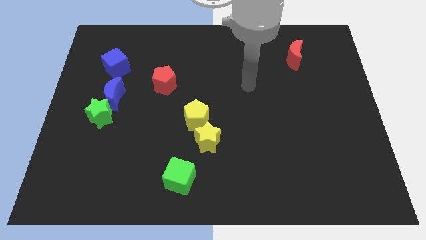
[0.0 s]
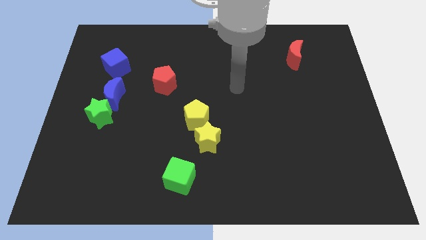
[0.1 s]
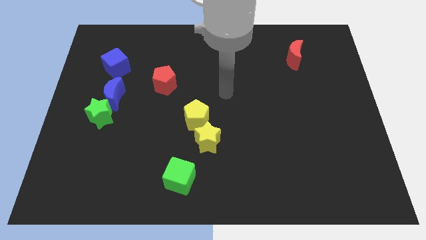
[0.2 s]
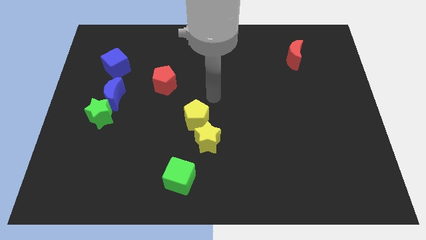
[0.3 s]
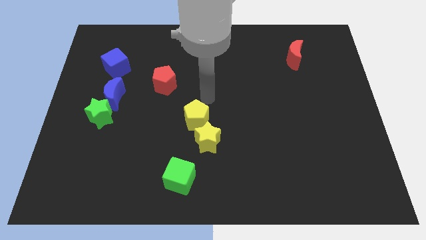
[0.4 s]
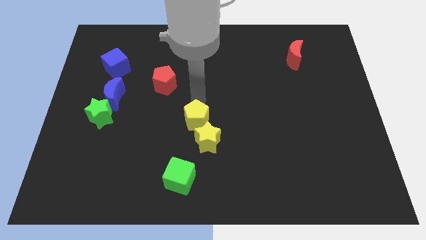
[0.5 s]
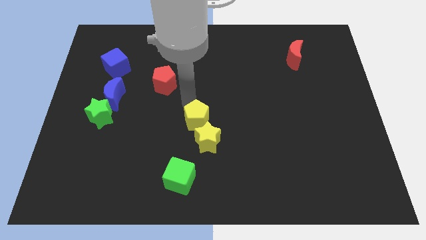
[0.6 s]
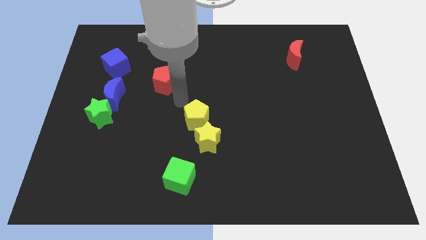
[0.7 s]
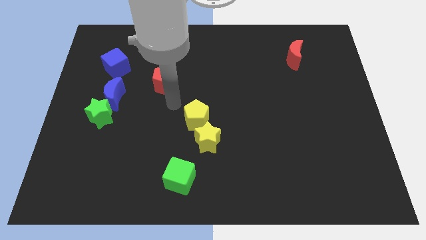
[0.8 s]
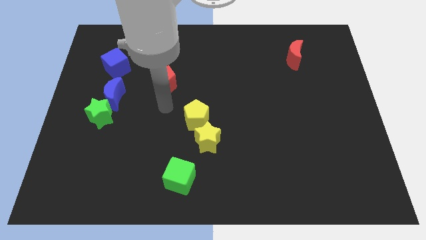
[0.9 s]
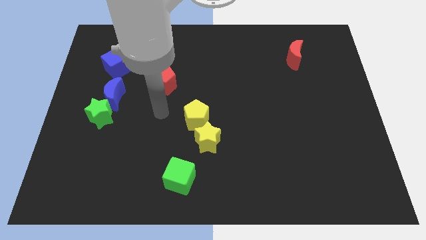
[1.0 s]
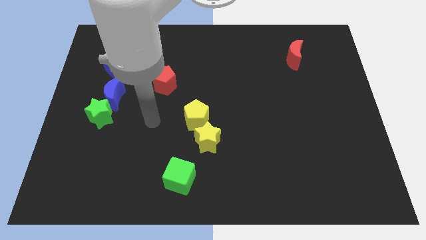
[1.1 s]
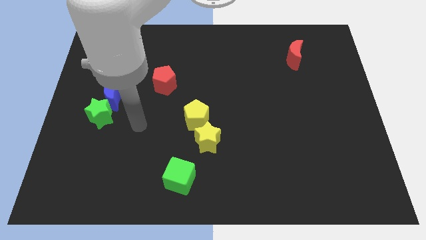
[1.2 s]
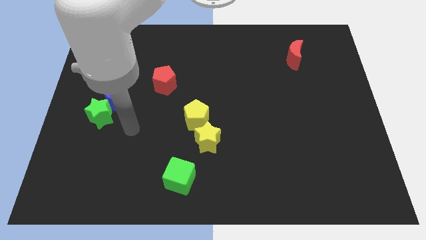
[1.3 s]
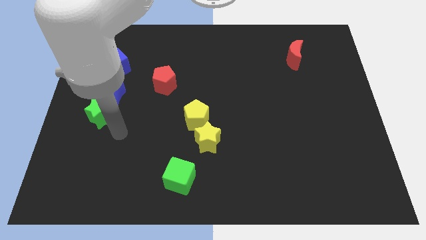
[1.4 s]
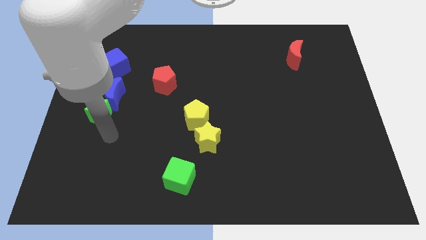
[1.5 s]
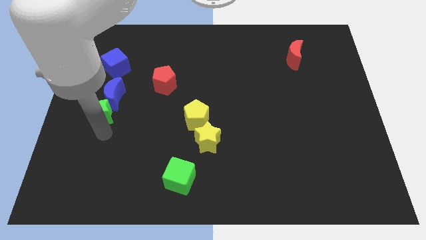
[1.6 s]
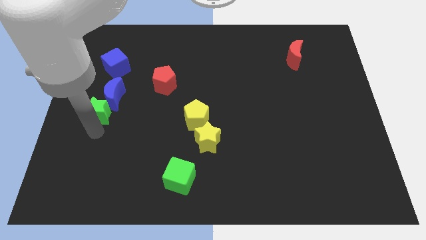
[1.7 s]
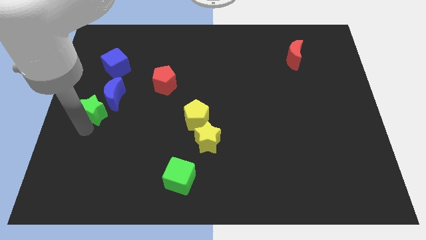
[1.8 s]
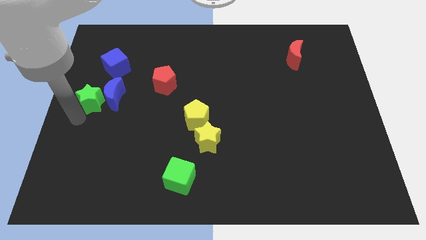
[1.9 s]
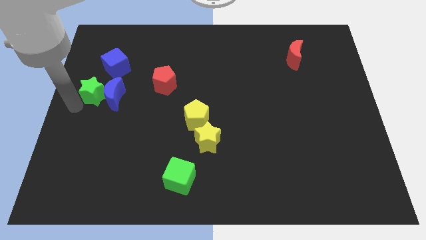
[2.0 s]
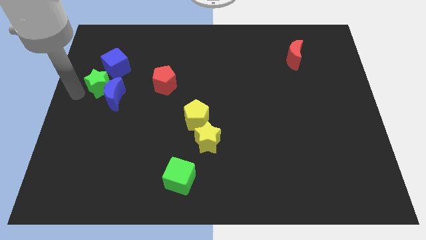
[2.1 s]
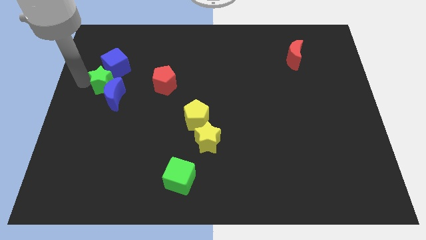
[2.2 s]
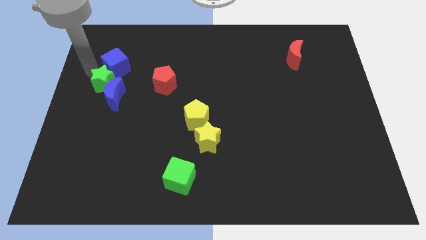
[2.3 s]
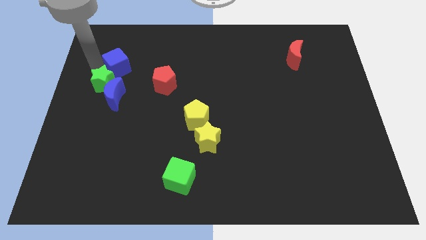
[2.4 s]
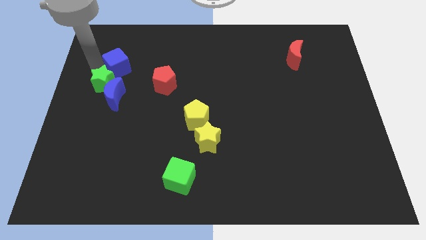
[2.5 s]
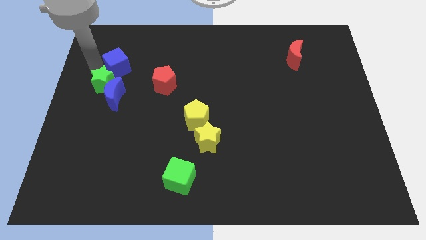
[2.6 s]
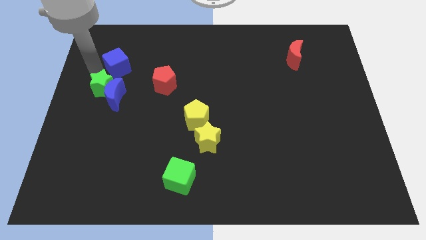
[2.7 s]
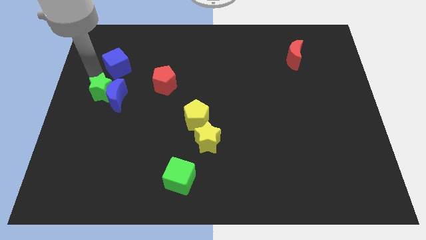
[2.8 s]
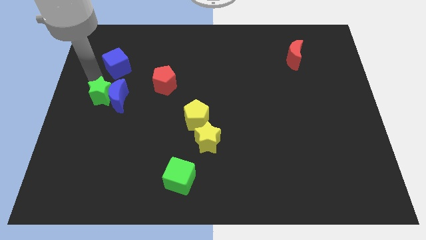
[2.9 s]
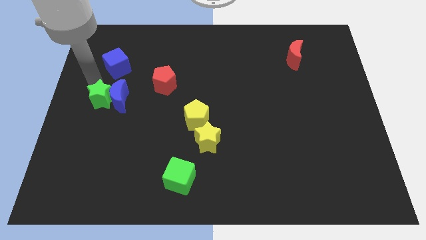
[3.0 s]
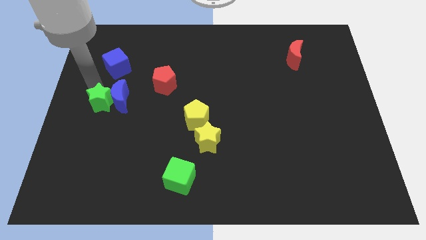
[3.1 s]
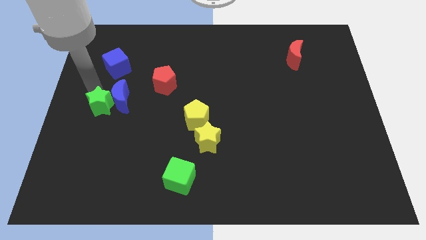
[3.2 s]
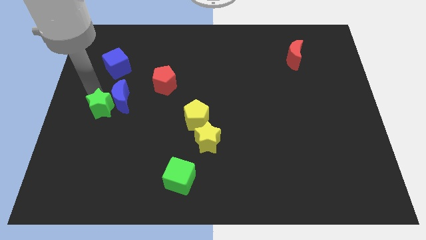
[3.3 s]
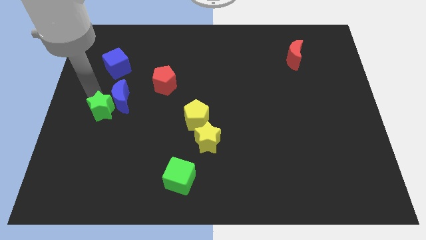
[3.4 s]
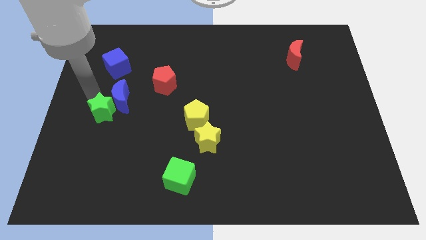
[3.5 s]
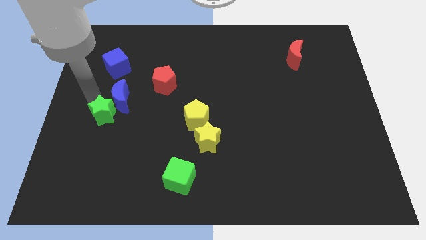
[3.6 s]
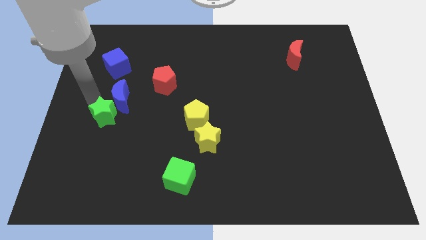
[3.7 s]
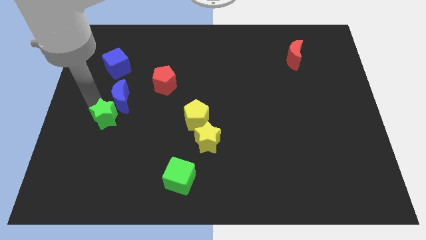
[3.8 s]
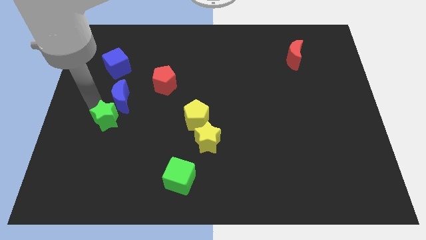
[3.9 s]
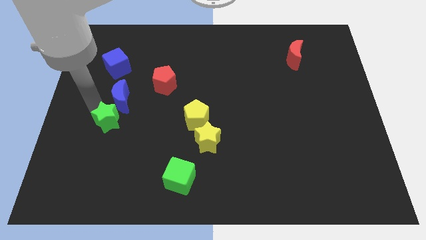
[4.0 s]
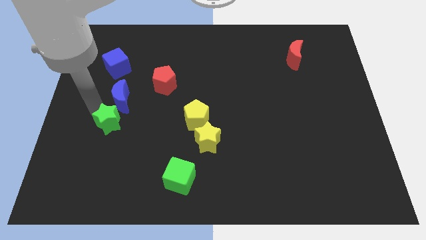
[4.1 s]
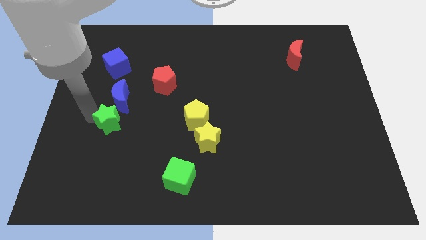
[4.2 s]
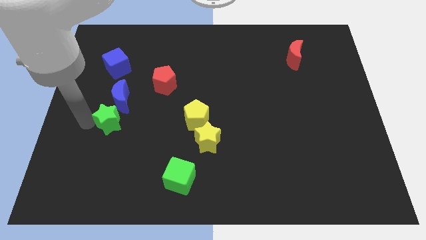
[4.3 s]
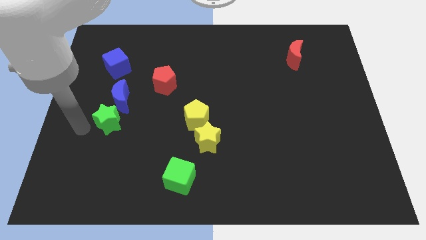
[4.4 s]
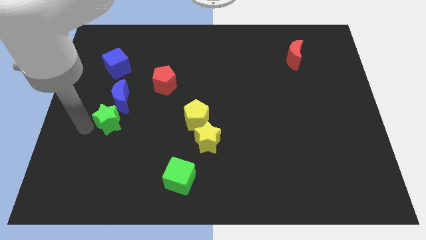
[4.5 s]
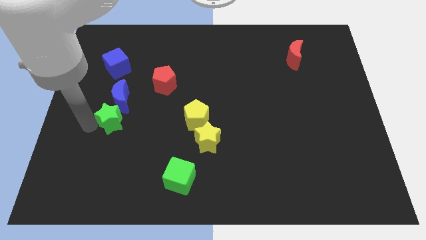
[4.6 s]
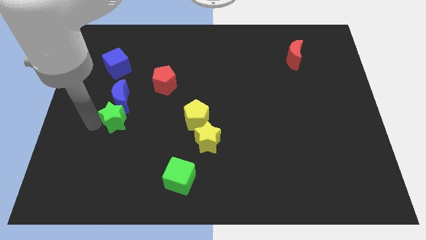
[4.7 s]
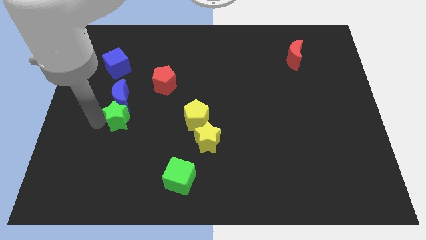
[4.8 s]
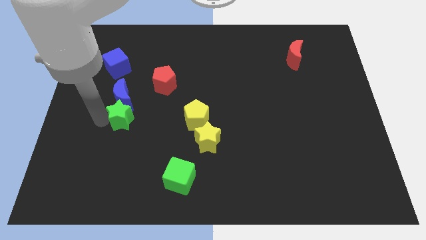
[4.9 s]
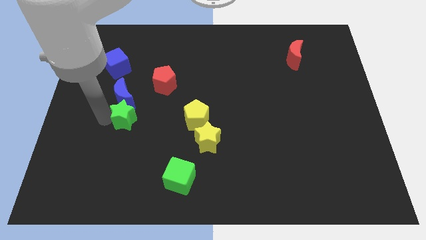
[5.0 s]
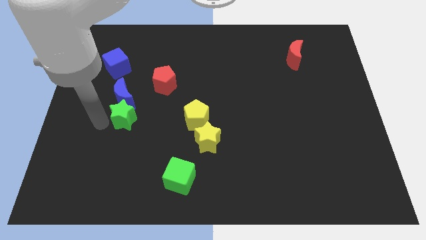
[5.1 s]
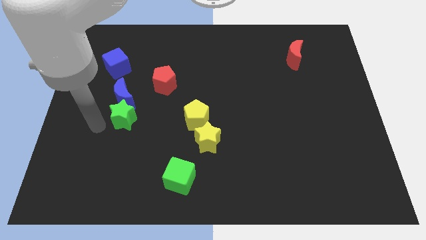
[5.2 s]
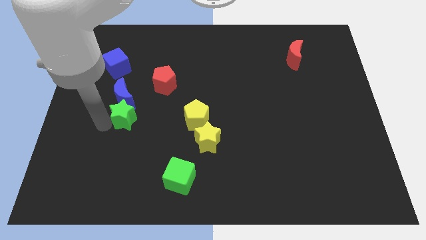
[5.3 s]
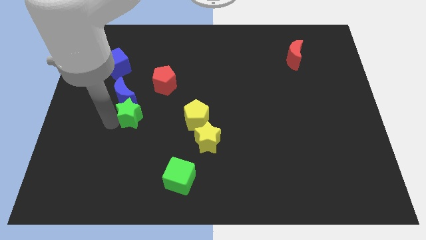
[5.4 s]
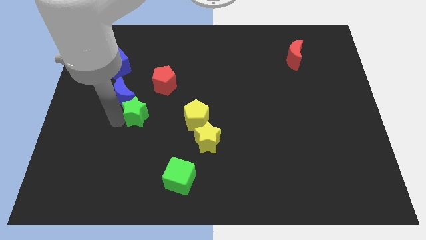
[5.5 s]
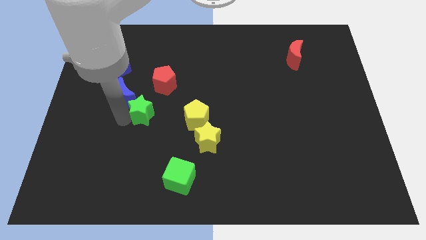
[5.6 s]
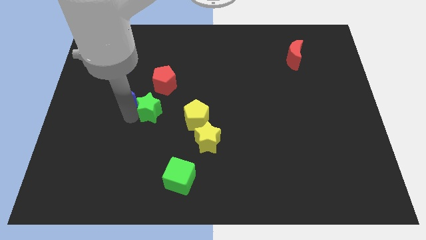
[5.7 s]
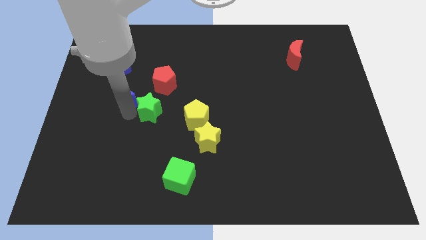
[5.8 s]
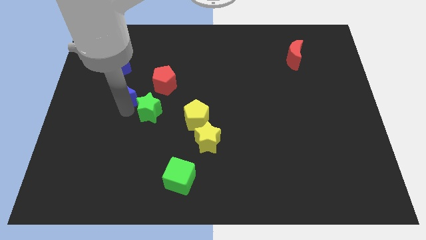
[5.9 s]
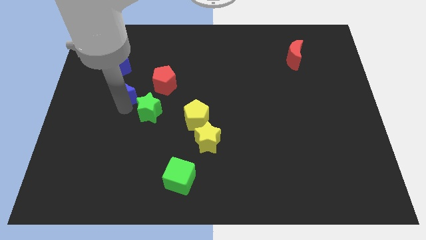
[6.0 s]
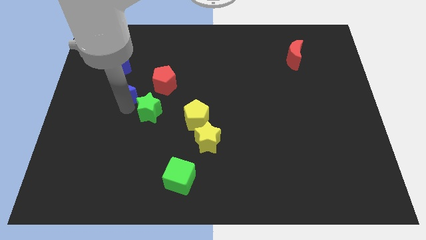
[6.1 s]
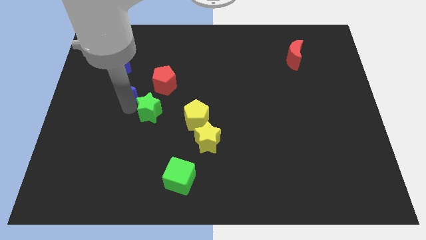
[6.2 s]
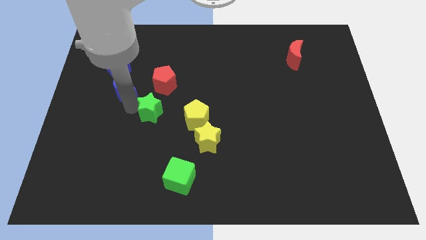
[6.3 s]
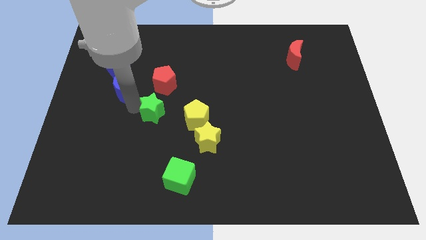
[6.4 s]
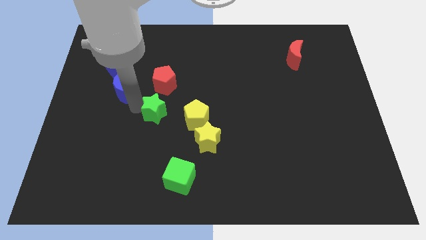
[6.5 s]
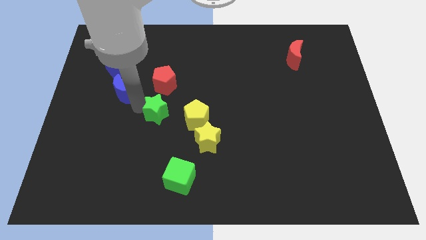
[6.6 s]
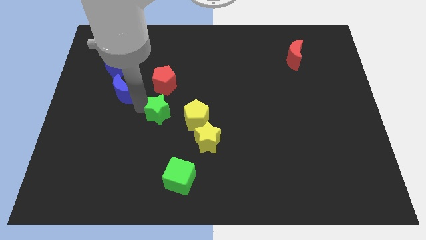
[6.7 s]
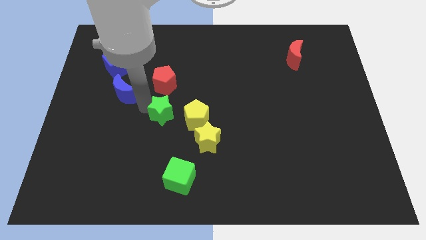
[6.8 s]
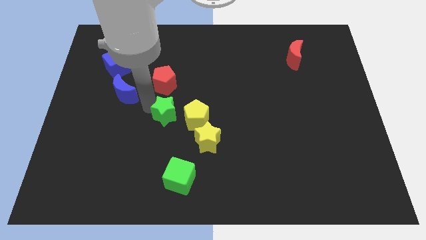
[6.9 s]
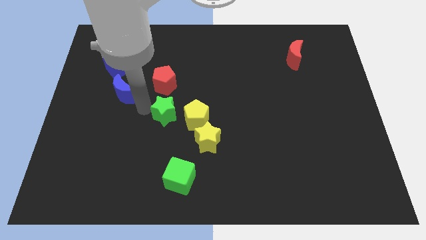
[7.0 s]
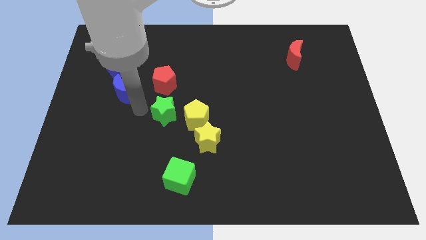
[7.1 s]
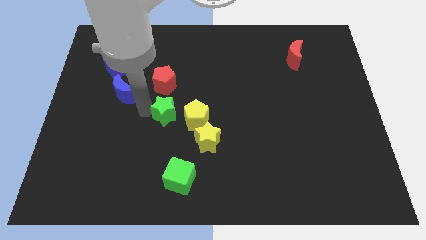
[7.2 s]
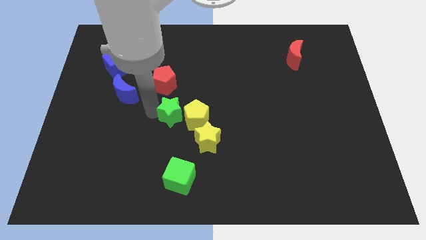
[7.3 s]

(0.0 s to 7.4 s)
slide the green star towards the yellow pentagon

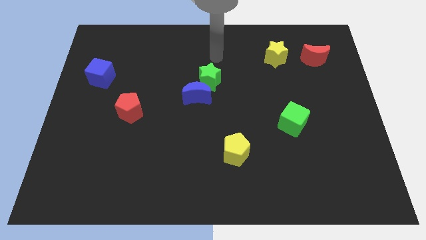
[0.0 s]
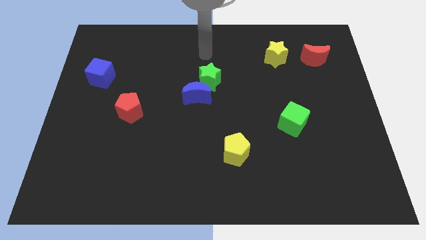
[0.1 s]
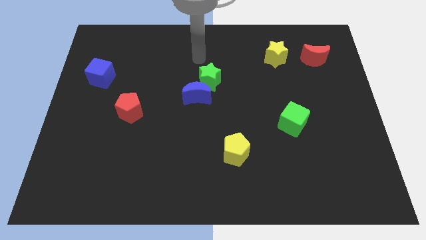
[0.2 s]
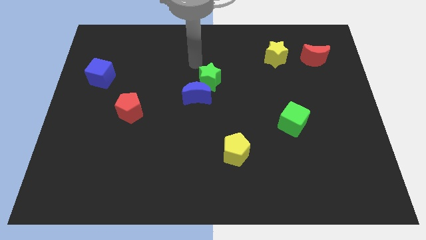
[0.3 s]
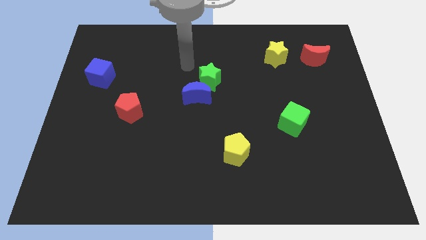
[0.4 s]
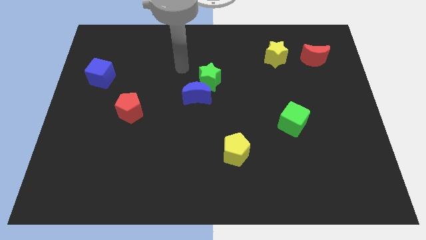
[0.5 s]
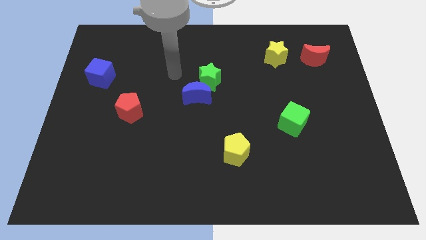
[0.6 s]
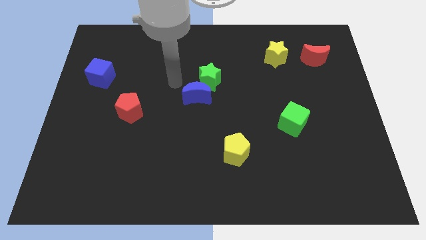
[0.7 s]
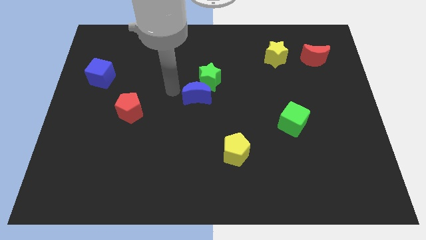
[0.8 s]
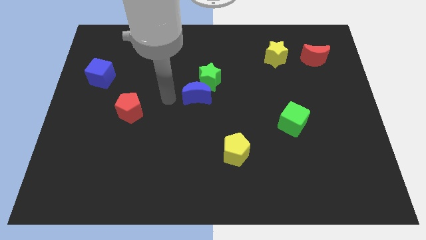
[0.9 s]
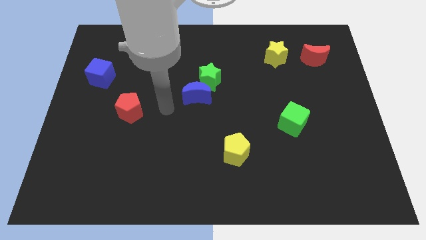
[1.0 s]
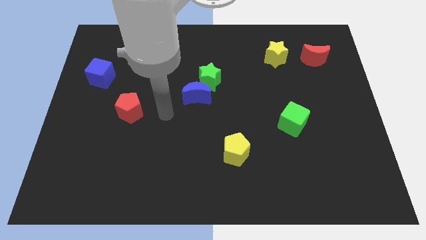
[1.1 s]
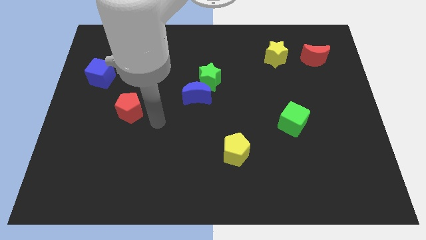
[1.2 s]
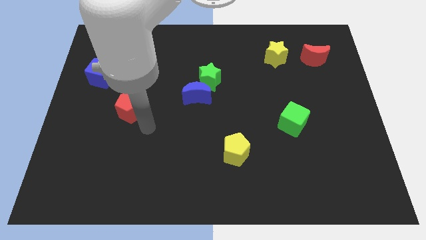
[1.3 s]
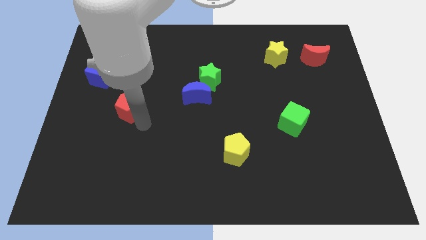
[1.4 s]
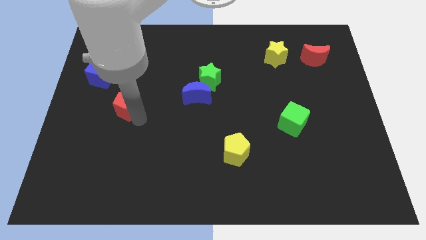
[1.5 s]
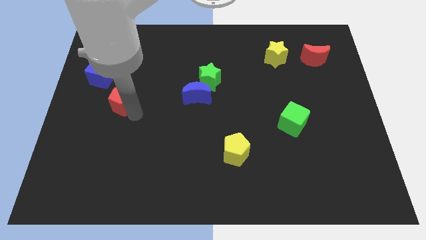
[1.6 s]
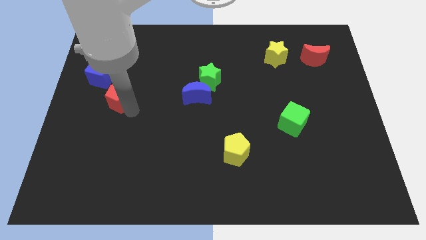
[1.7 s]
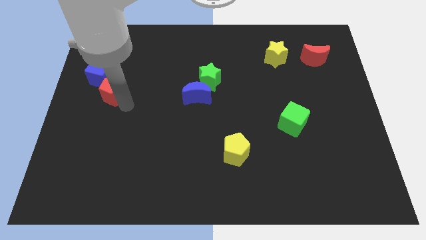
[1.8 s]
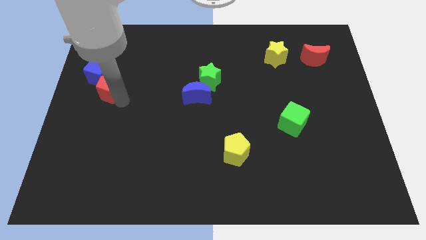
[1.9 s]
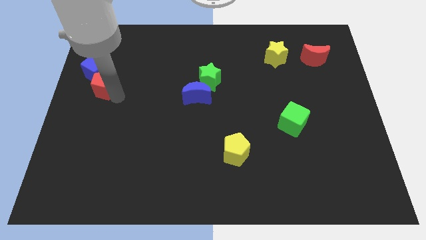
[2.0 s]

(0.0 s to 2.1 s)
move the red pentagon close to the blue cube
